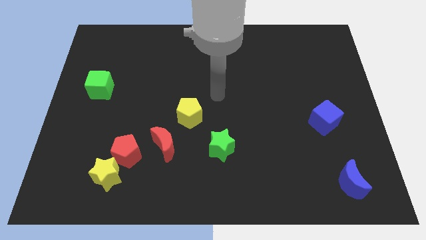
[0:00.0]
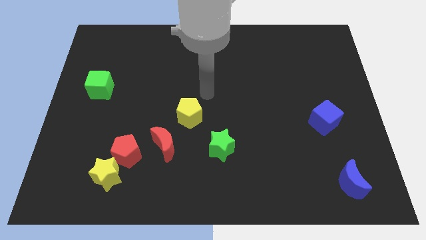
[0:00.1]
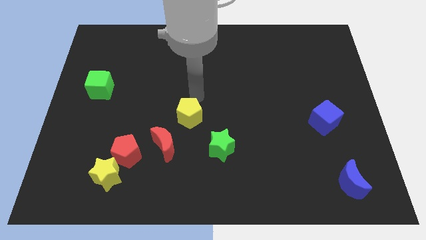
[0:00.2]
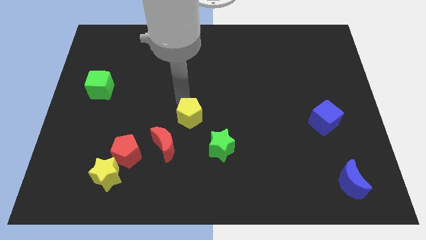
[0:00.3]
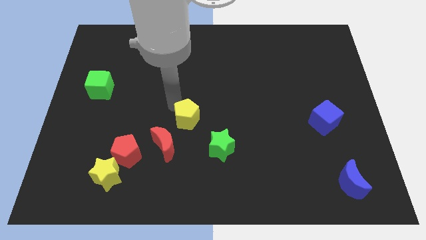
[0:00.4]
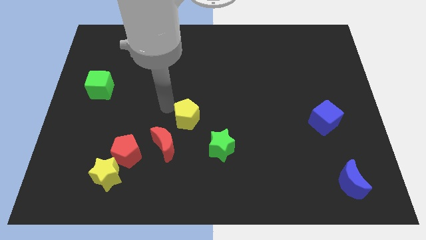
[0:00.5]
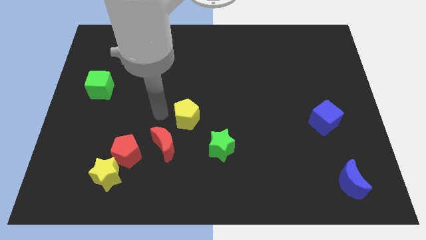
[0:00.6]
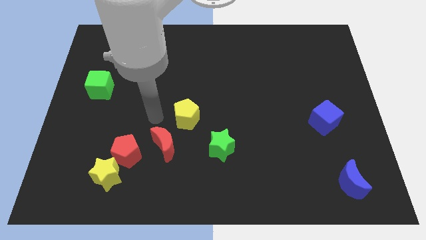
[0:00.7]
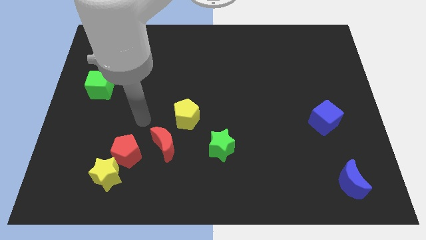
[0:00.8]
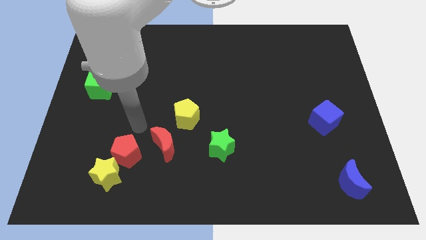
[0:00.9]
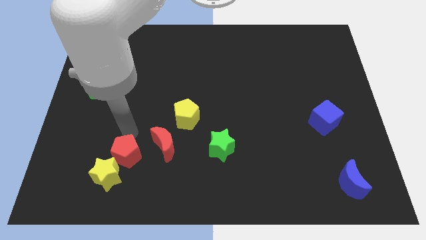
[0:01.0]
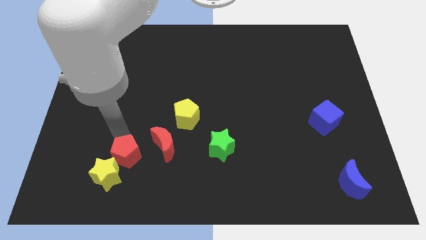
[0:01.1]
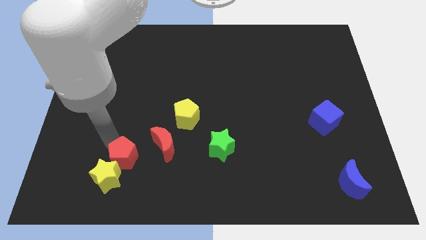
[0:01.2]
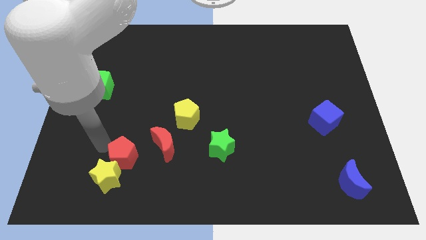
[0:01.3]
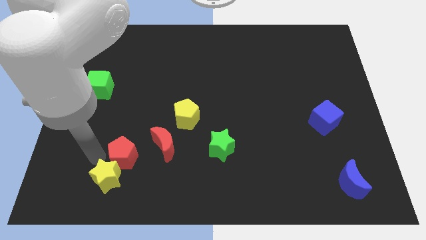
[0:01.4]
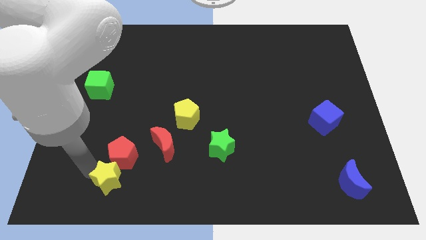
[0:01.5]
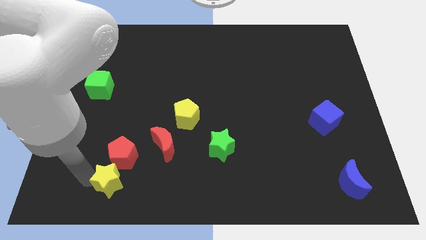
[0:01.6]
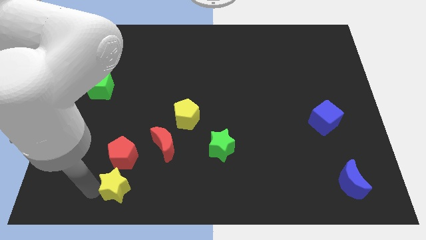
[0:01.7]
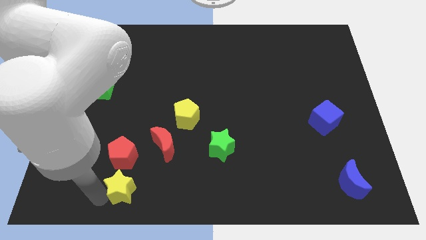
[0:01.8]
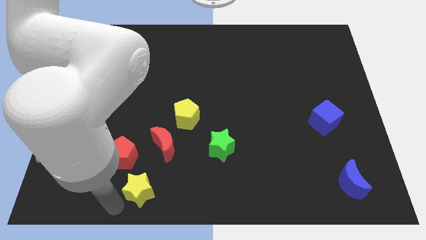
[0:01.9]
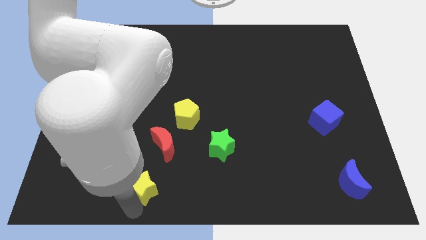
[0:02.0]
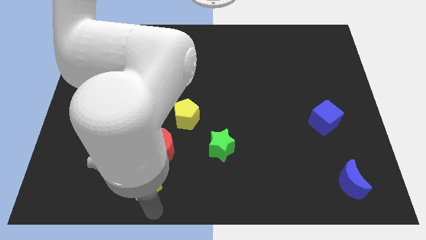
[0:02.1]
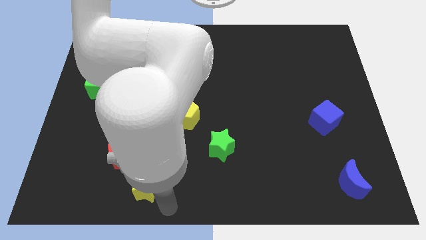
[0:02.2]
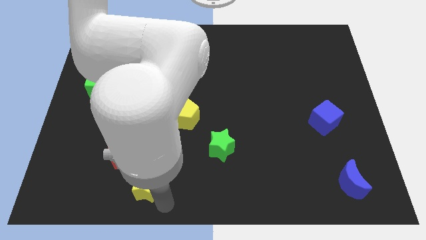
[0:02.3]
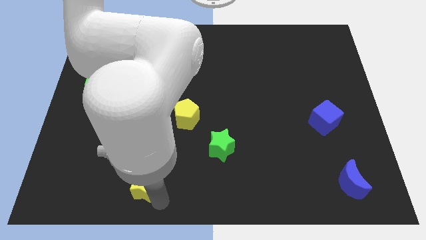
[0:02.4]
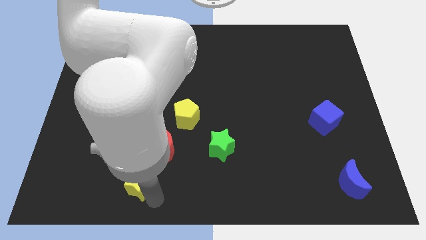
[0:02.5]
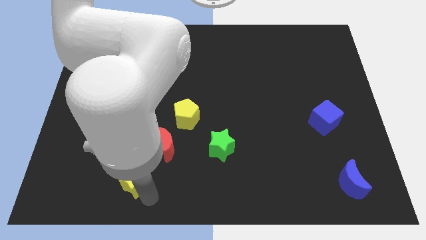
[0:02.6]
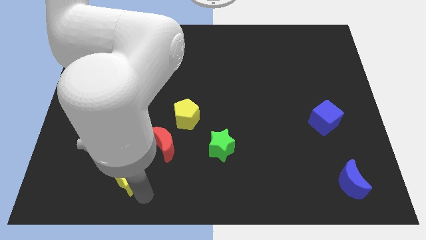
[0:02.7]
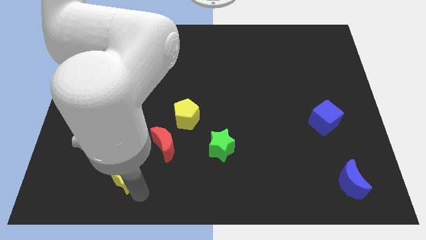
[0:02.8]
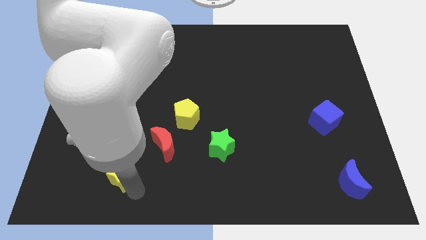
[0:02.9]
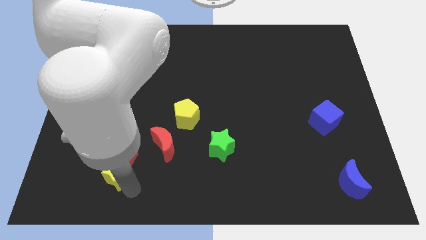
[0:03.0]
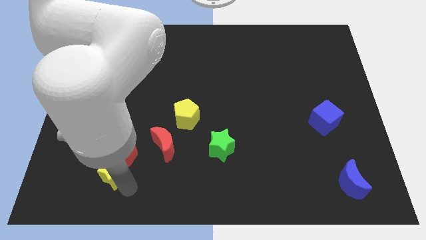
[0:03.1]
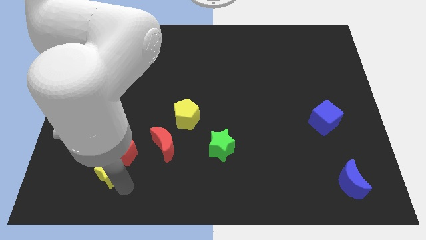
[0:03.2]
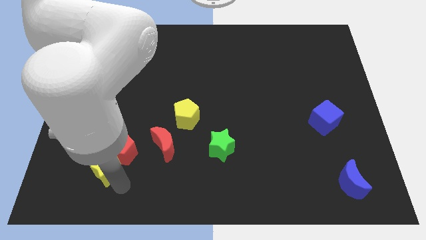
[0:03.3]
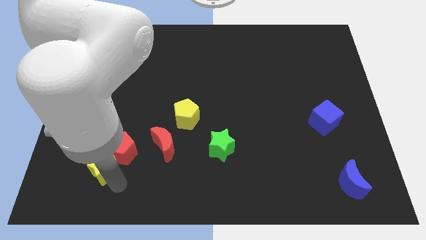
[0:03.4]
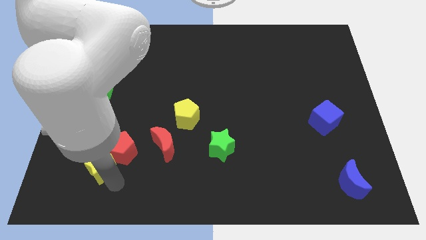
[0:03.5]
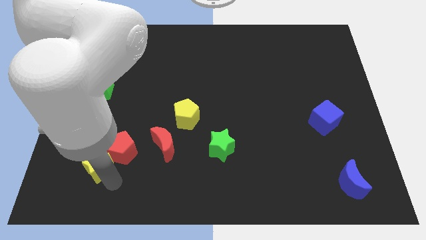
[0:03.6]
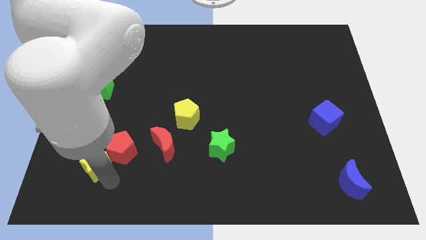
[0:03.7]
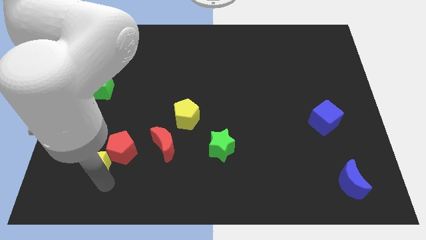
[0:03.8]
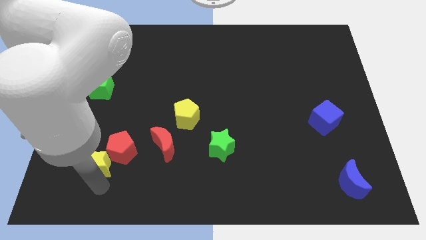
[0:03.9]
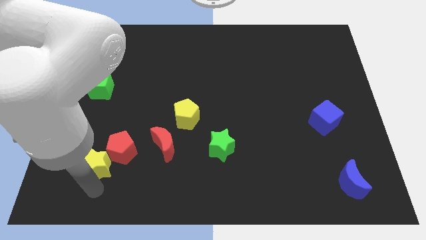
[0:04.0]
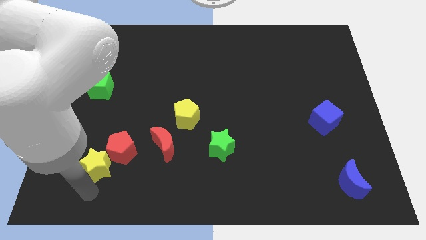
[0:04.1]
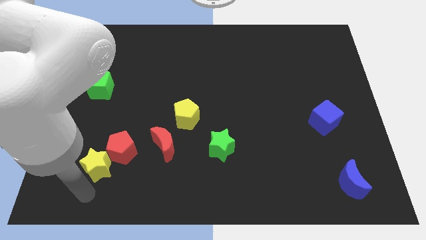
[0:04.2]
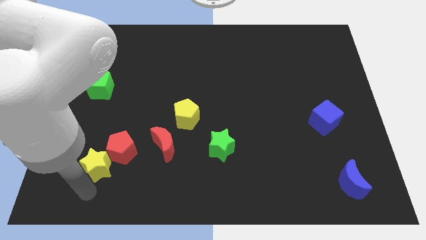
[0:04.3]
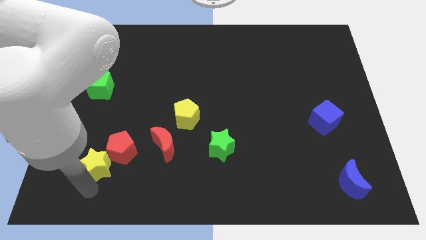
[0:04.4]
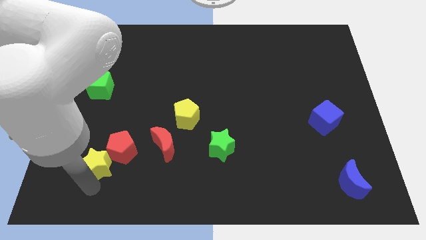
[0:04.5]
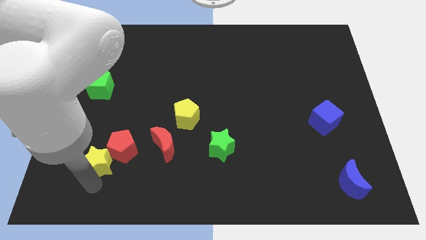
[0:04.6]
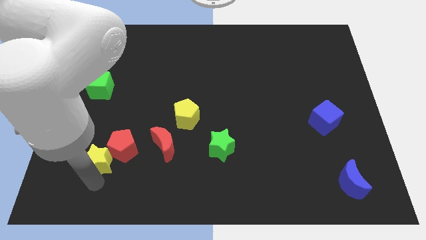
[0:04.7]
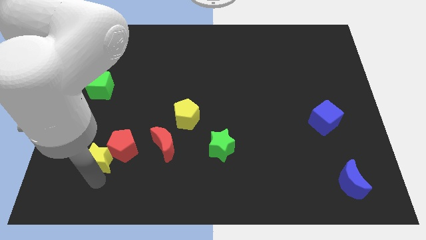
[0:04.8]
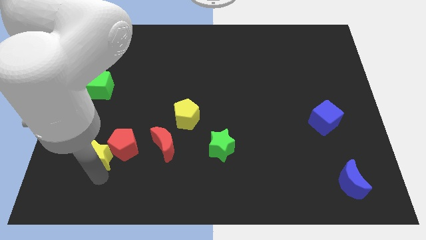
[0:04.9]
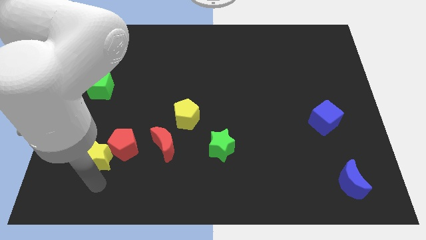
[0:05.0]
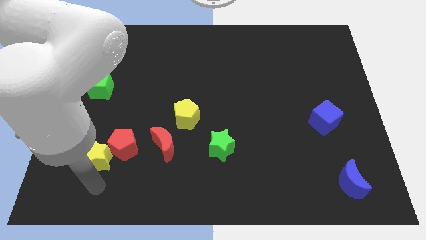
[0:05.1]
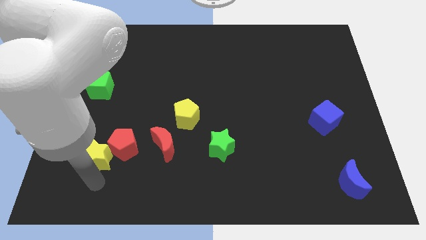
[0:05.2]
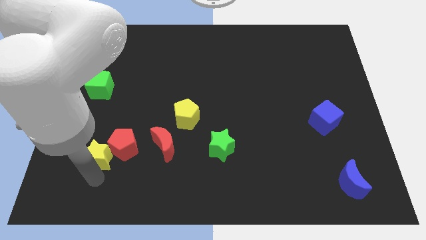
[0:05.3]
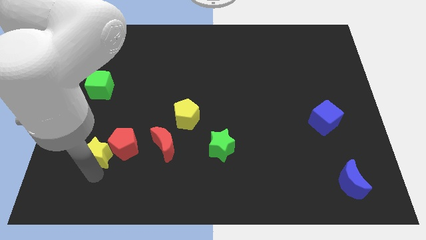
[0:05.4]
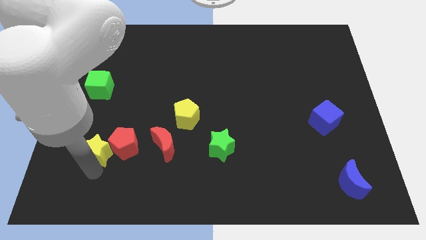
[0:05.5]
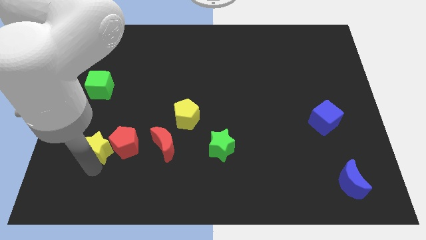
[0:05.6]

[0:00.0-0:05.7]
move the yellow star to the top left of the red pentagon
